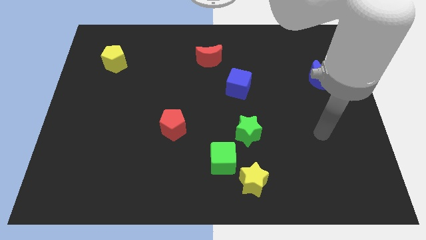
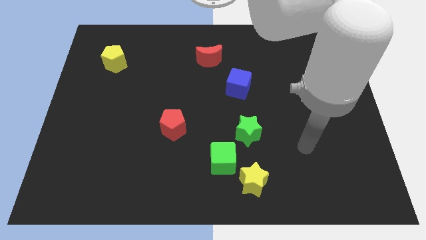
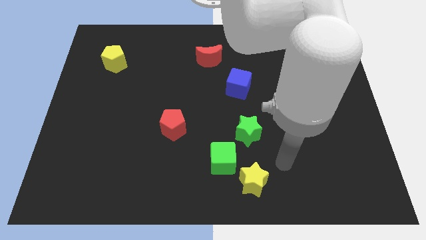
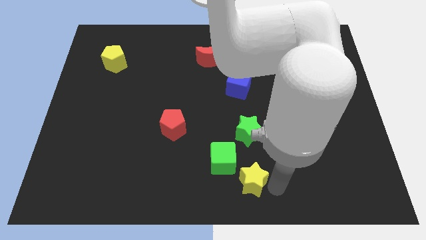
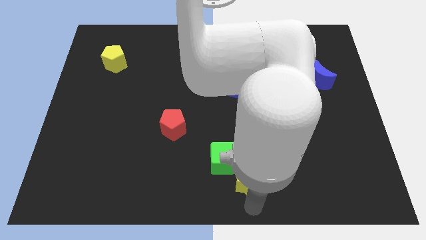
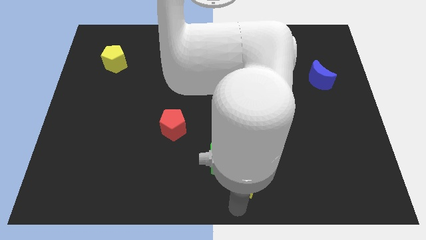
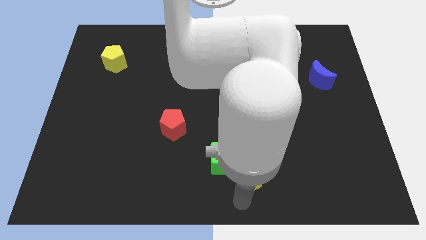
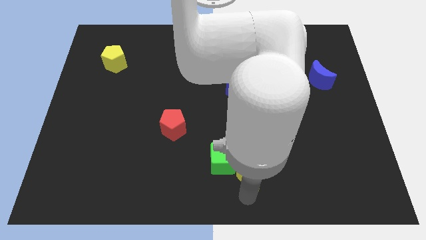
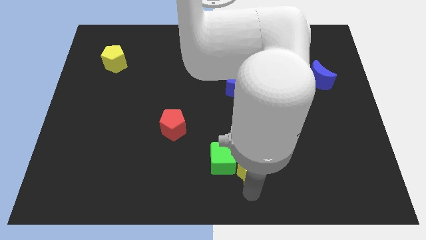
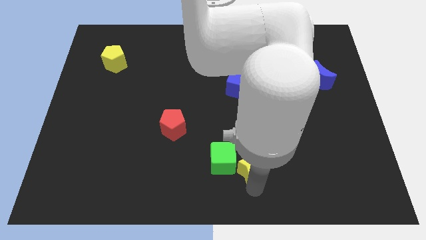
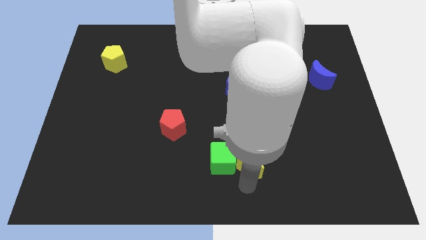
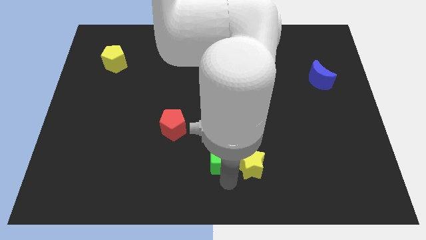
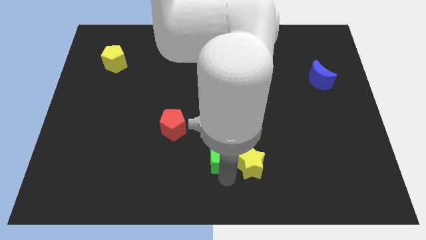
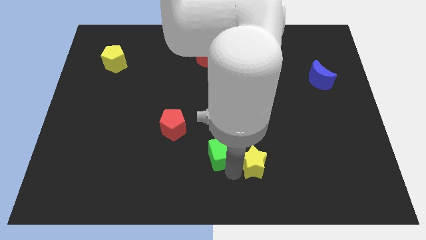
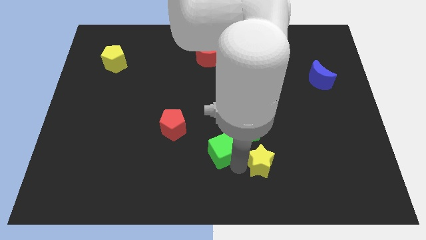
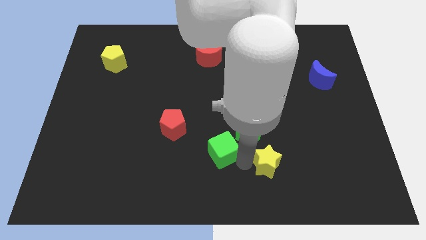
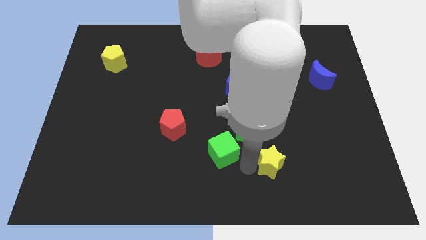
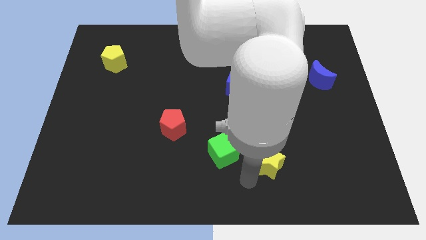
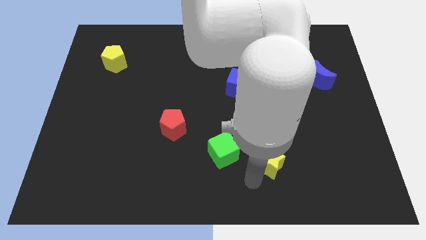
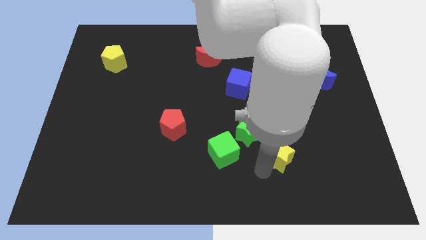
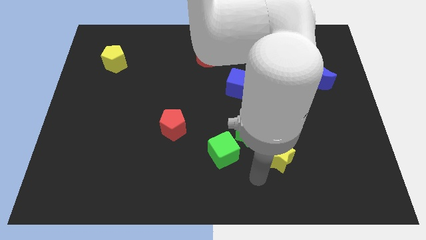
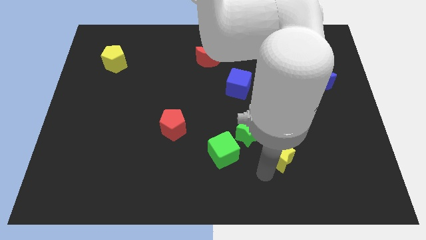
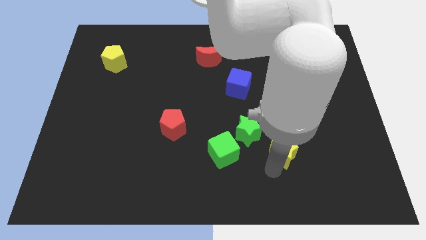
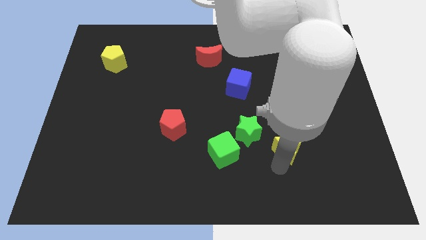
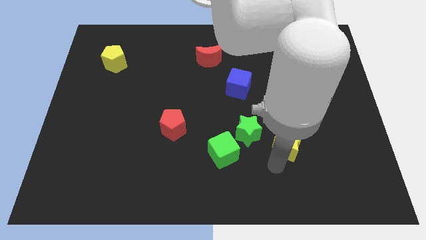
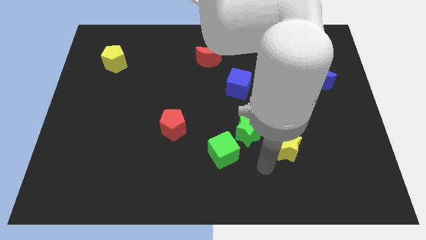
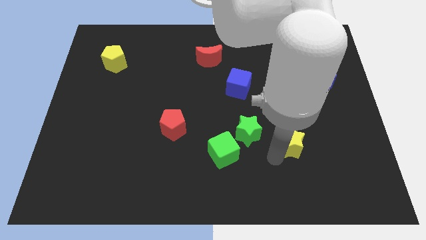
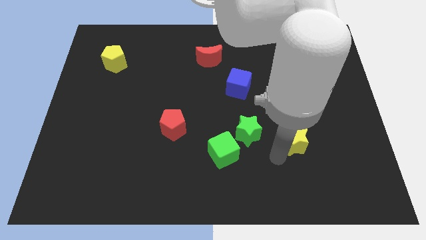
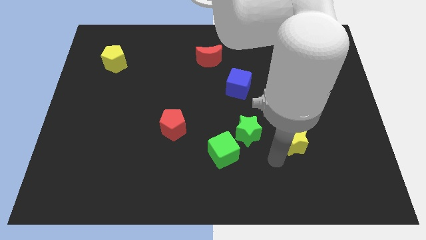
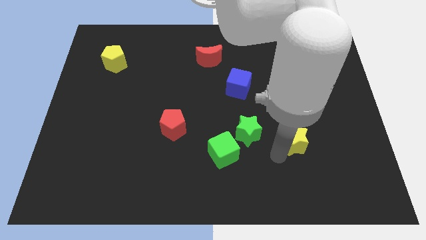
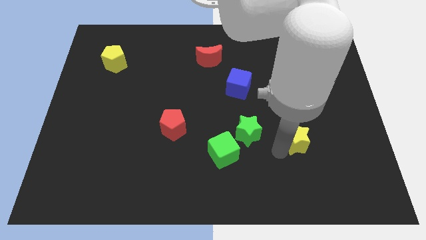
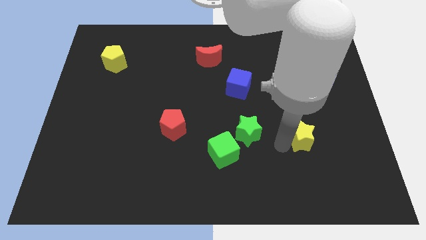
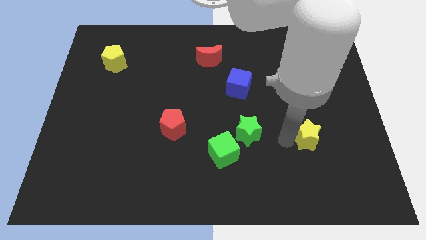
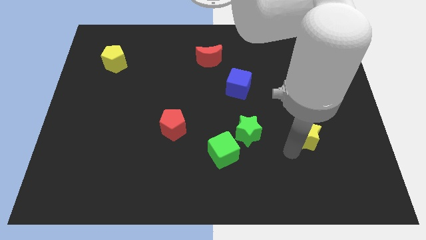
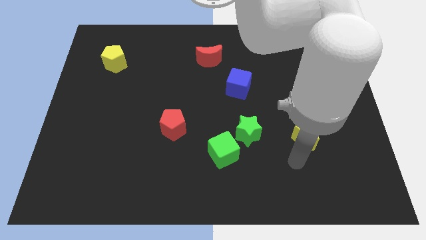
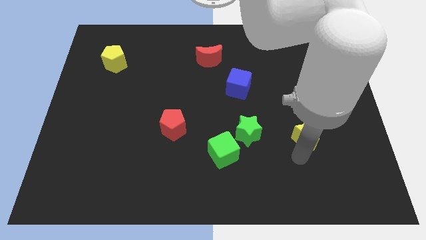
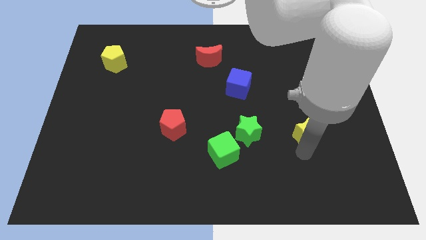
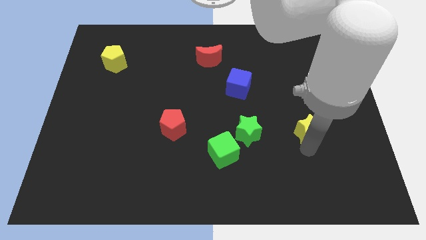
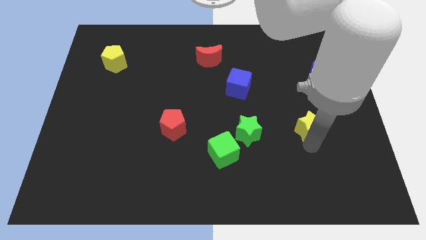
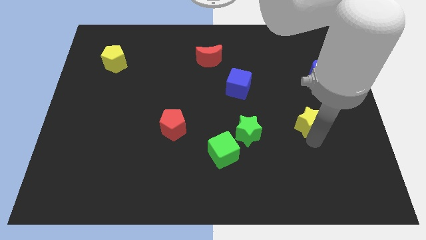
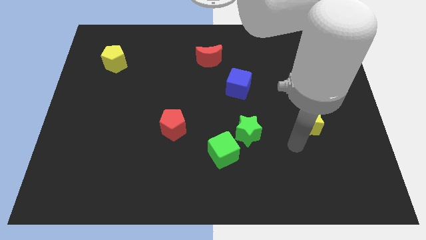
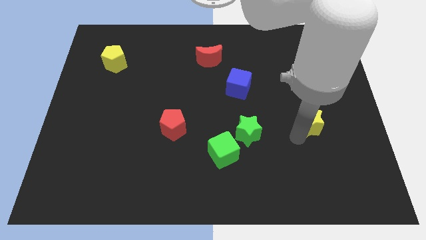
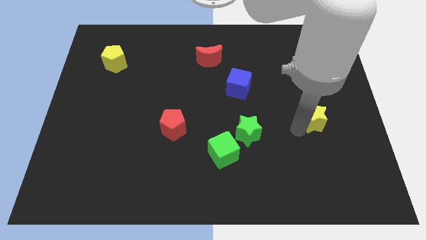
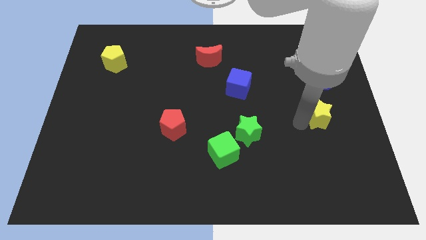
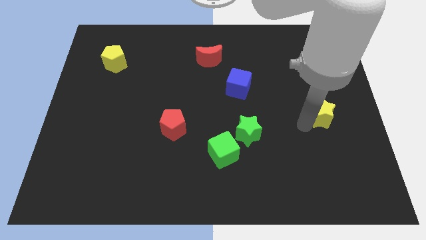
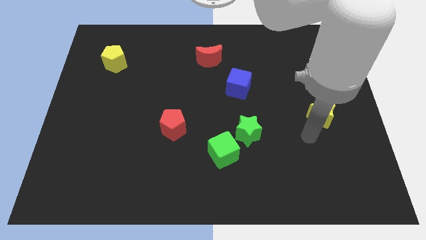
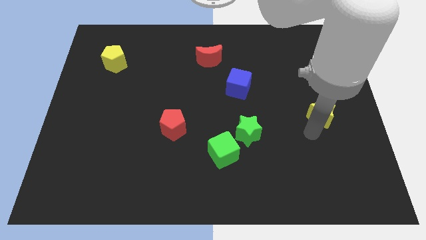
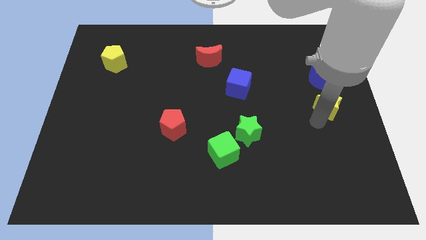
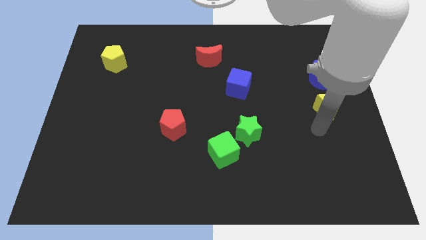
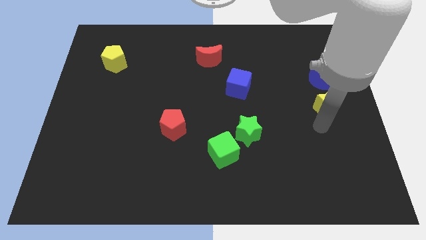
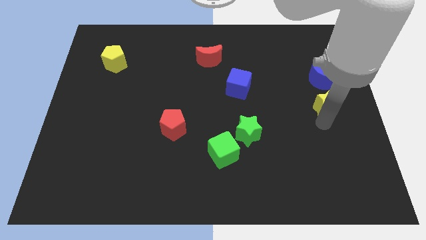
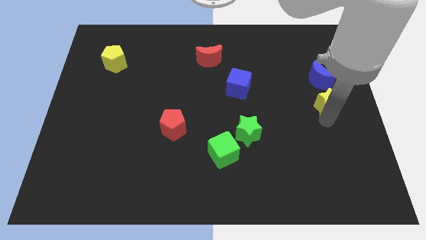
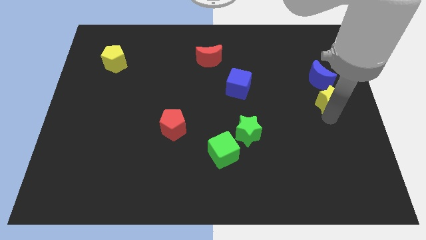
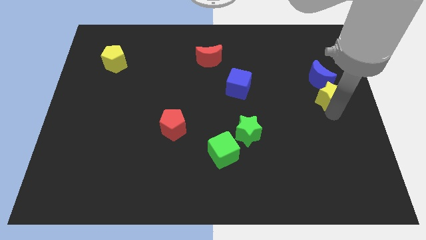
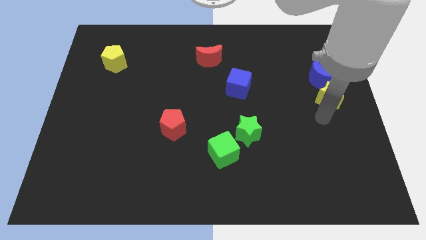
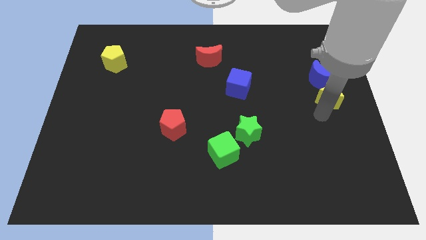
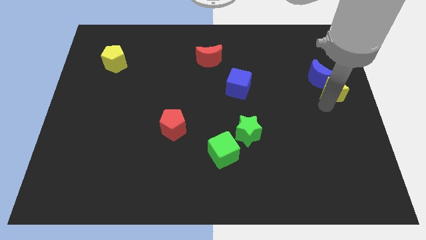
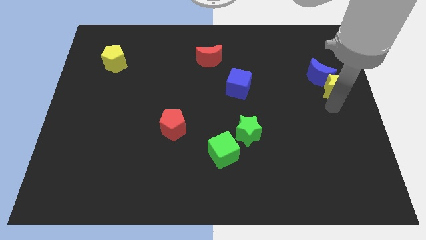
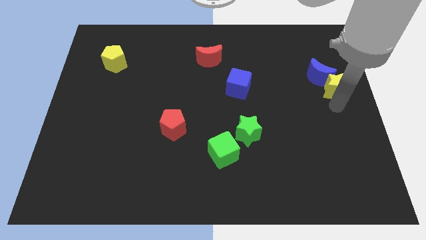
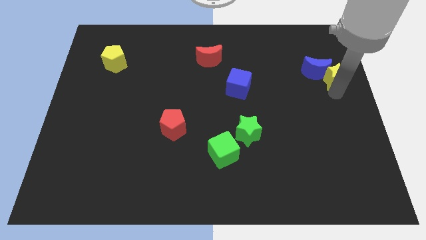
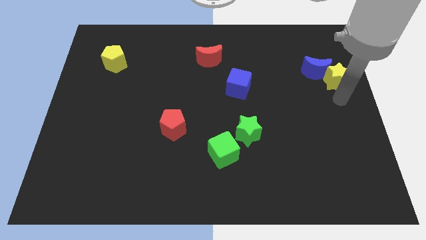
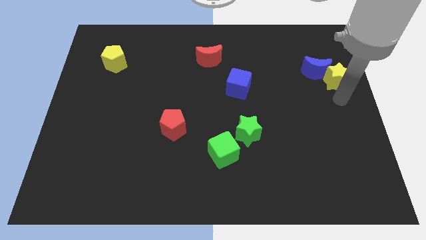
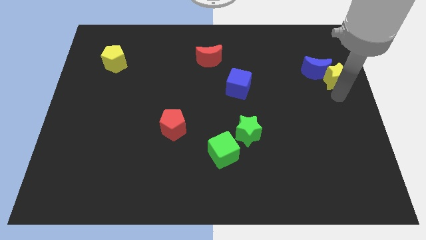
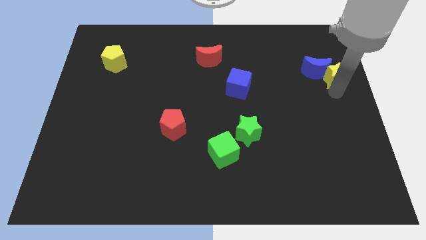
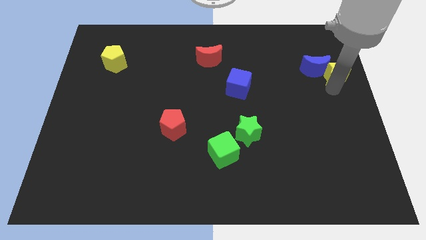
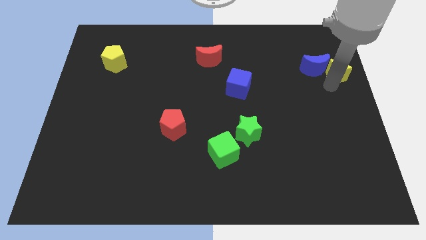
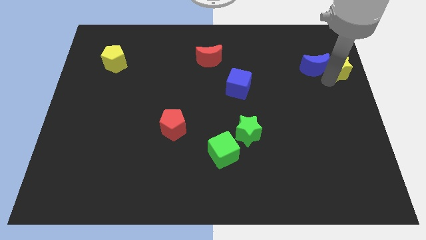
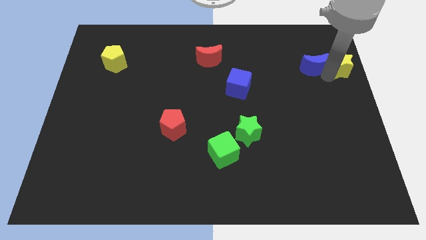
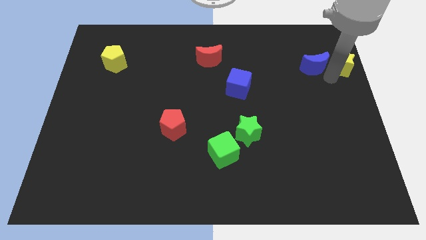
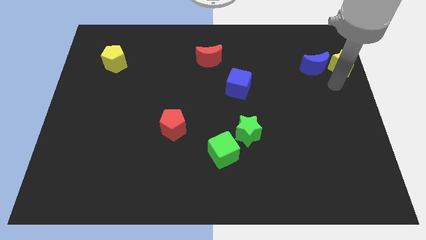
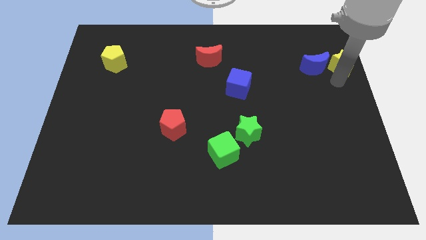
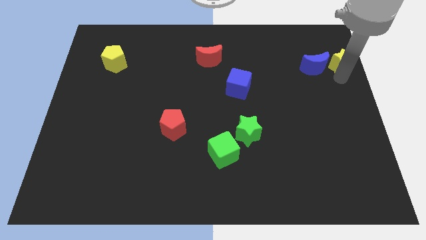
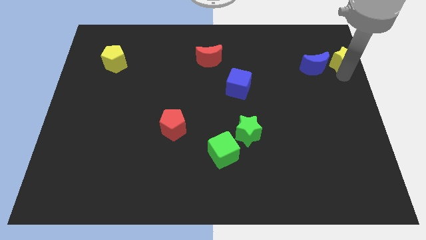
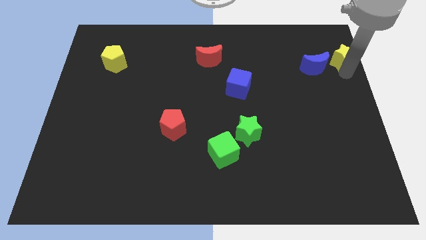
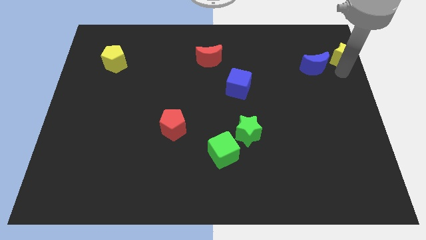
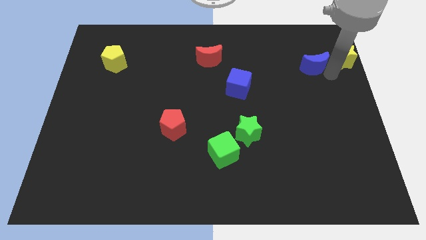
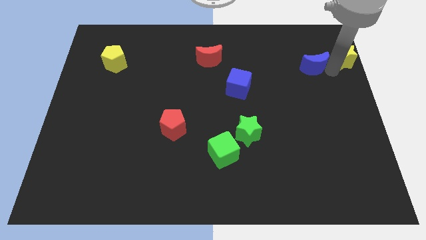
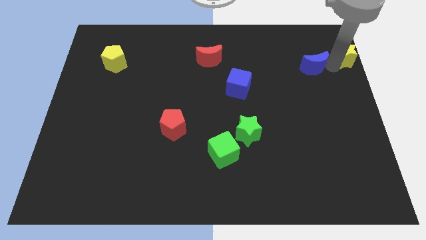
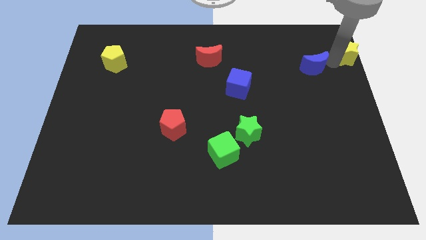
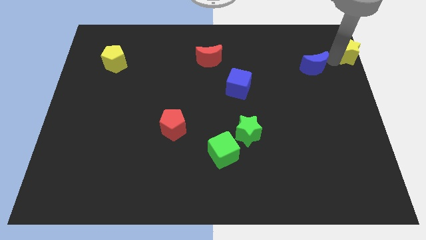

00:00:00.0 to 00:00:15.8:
put the yellow star to the top right of the board

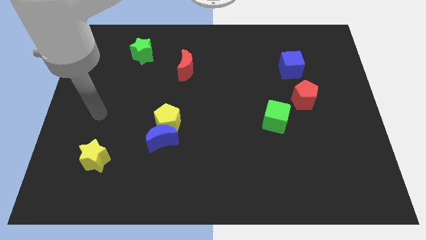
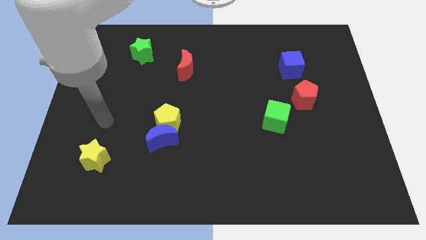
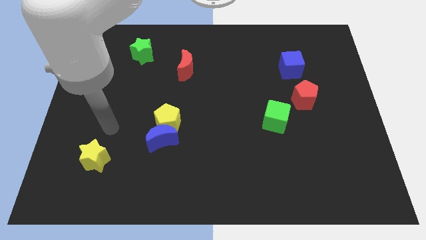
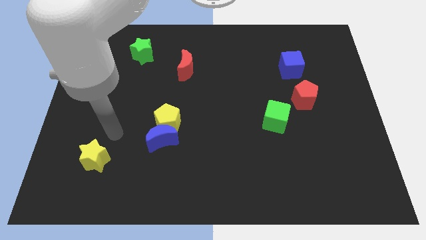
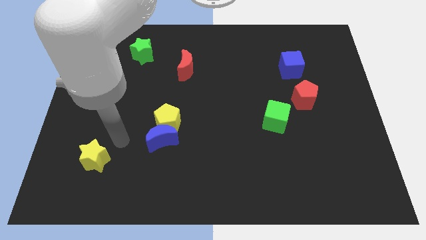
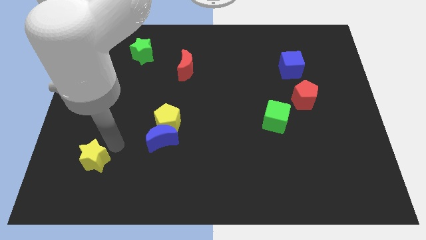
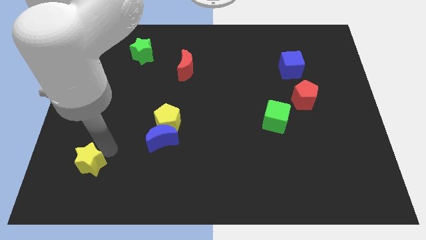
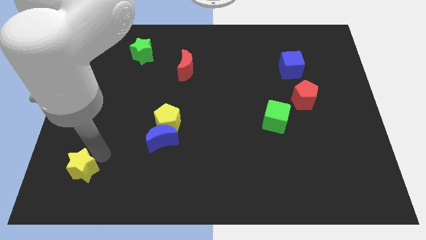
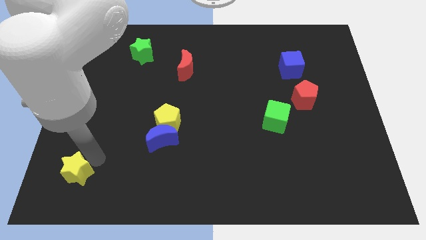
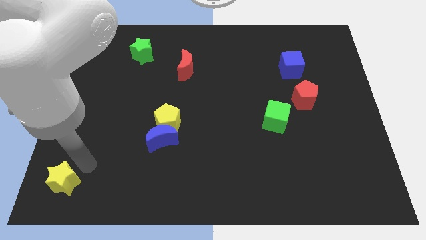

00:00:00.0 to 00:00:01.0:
push the yellow star to the lower left corner
